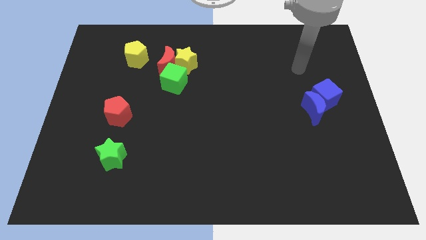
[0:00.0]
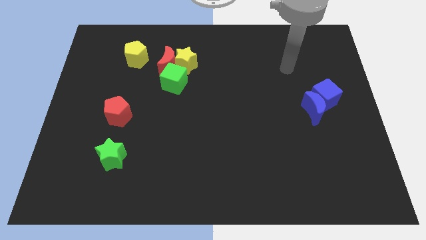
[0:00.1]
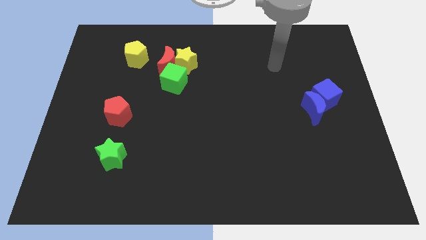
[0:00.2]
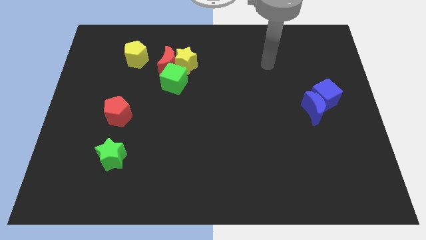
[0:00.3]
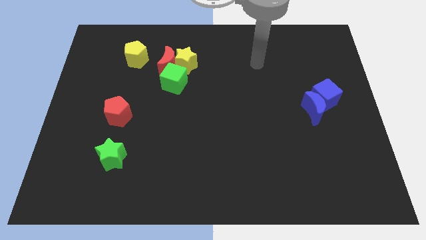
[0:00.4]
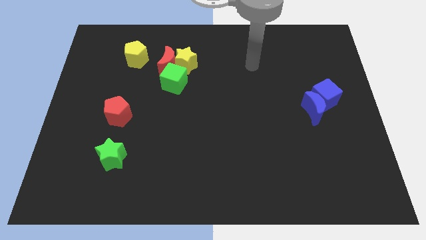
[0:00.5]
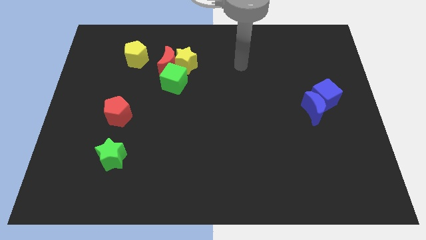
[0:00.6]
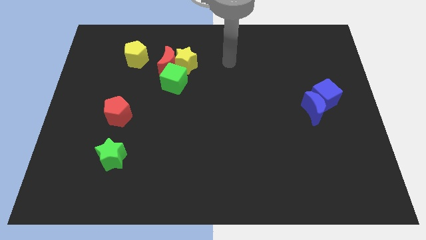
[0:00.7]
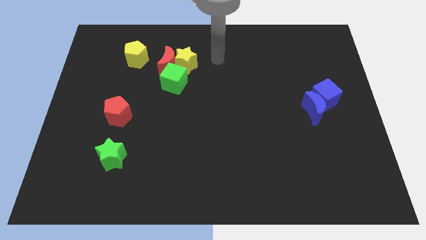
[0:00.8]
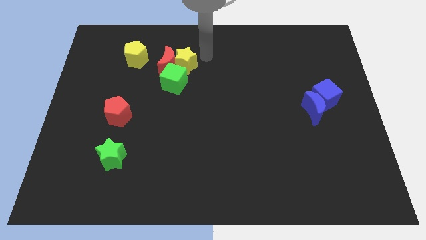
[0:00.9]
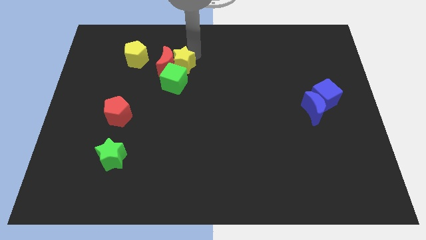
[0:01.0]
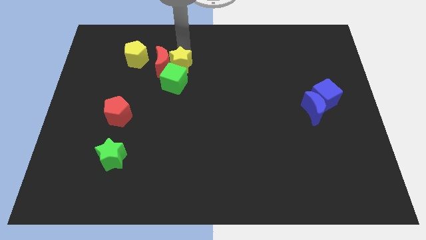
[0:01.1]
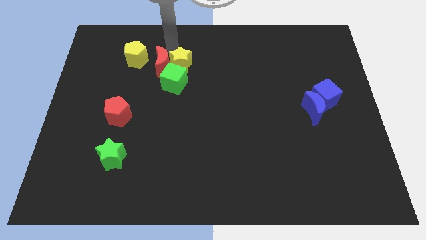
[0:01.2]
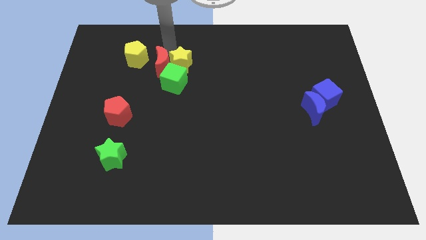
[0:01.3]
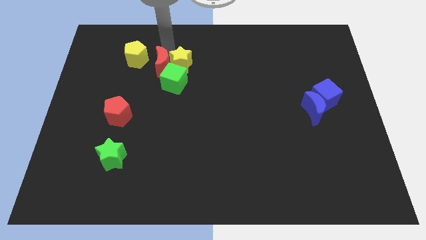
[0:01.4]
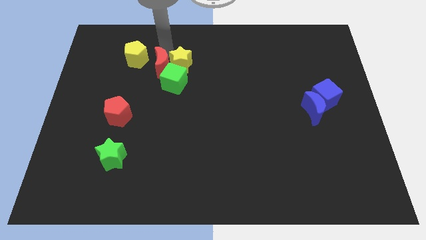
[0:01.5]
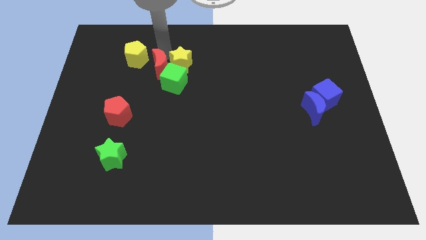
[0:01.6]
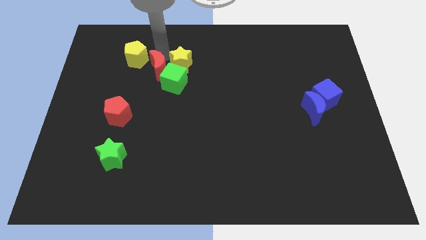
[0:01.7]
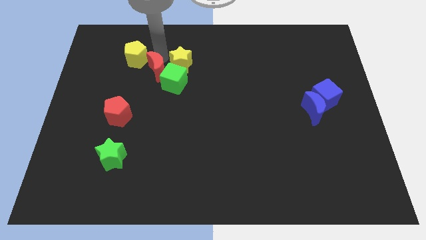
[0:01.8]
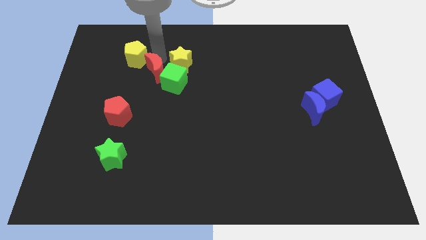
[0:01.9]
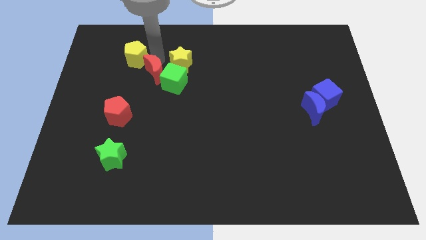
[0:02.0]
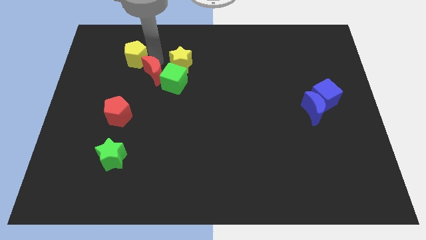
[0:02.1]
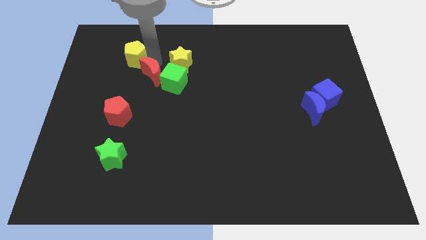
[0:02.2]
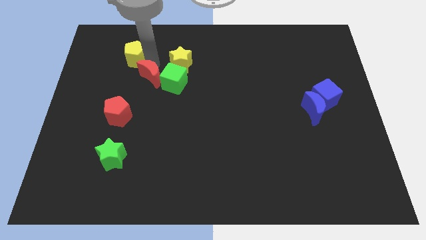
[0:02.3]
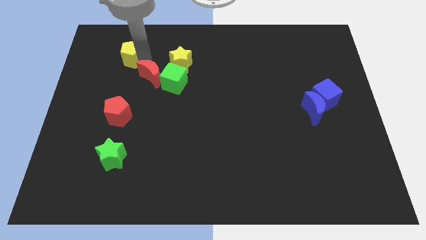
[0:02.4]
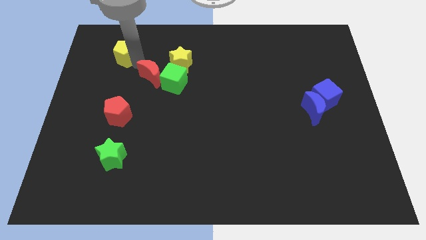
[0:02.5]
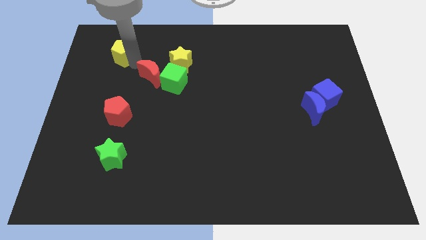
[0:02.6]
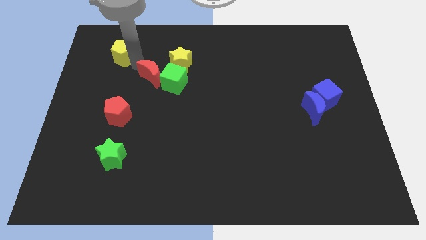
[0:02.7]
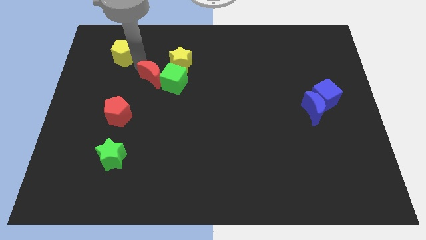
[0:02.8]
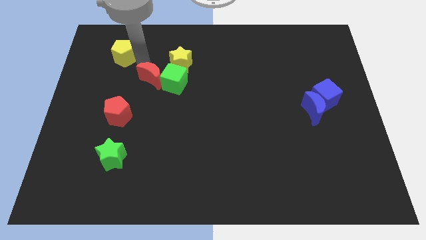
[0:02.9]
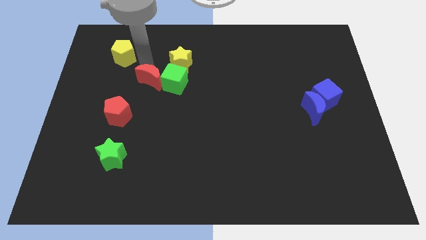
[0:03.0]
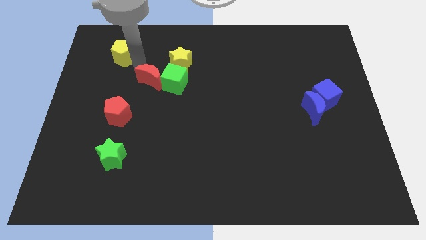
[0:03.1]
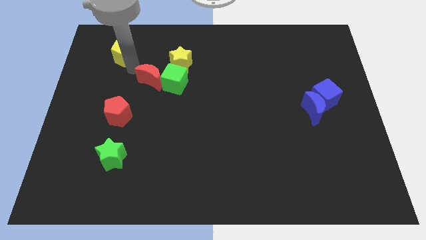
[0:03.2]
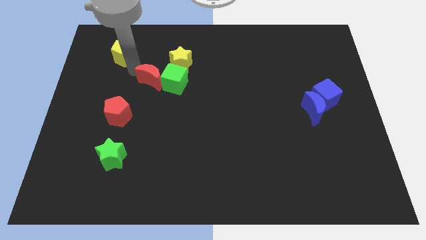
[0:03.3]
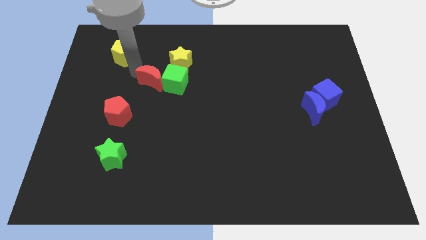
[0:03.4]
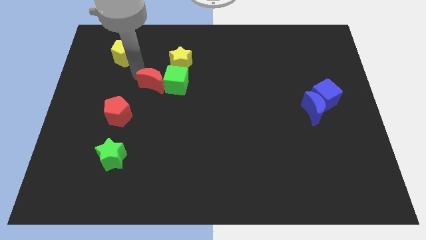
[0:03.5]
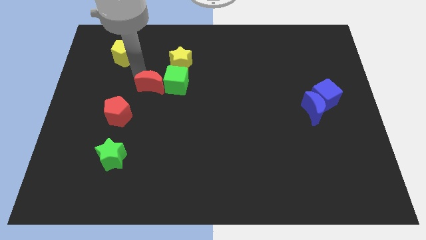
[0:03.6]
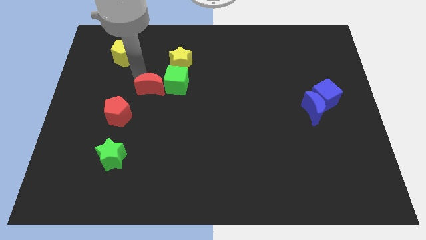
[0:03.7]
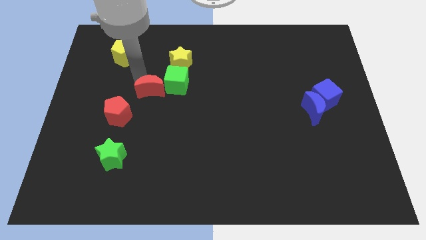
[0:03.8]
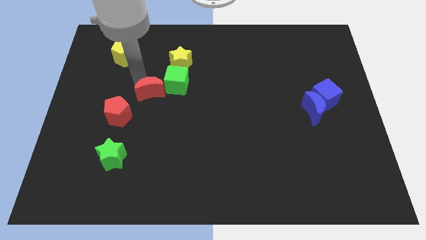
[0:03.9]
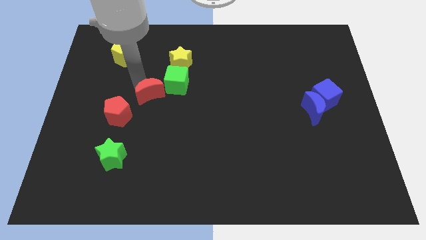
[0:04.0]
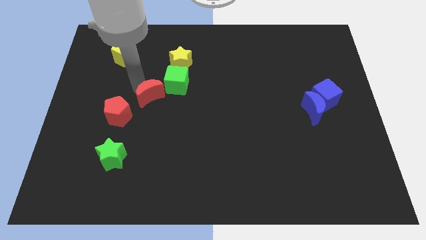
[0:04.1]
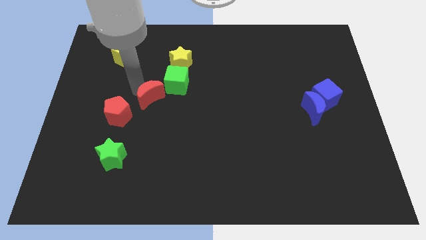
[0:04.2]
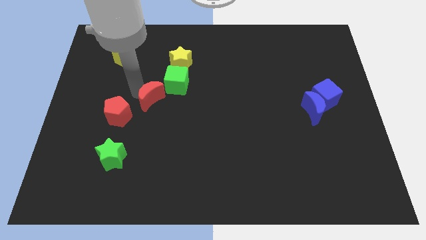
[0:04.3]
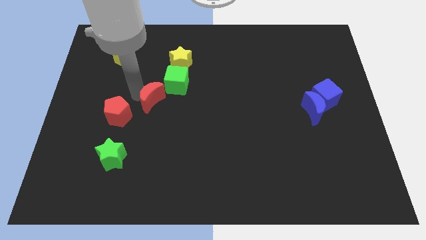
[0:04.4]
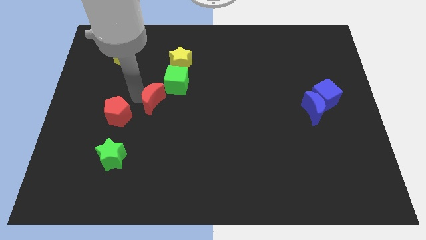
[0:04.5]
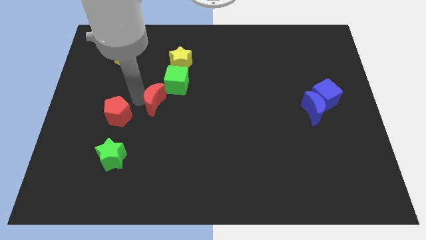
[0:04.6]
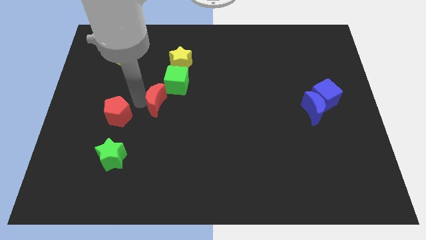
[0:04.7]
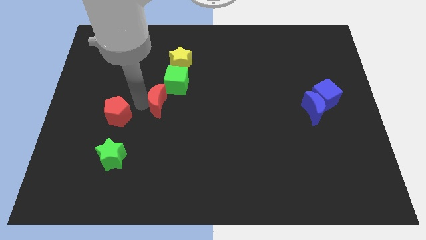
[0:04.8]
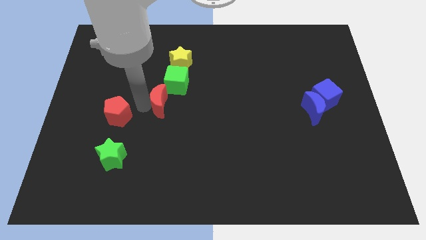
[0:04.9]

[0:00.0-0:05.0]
move the red moon to the bottom of the yellow star

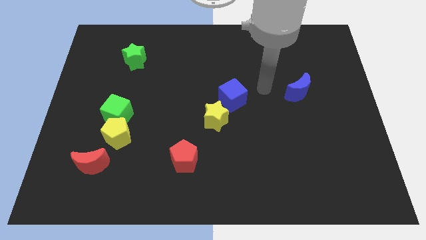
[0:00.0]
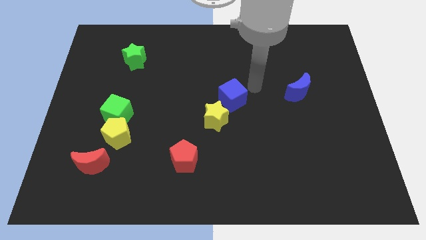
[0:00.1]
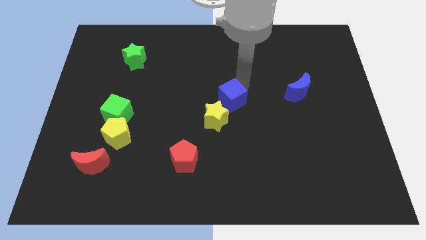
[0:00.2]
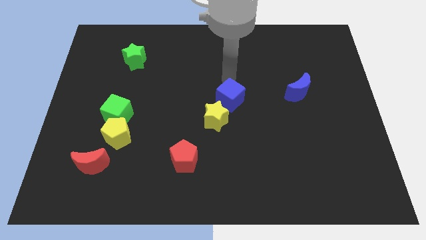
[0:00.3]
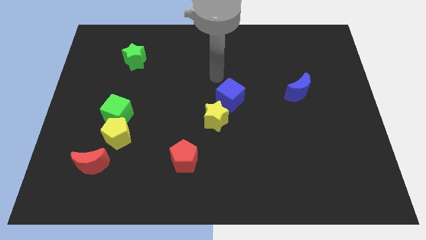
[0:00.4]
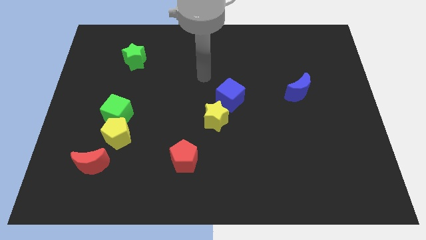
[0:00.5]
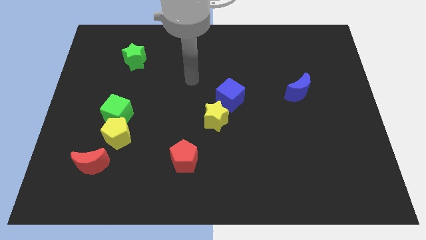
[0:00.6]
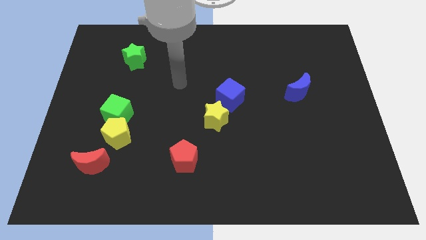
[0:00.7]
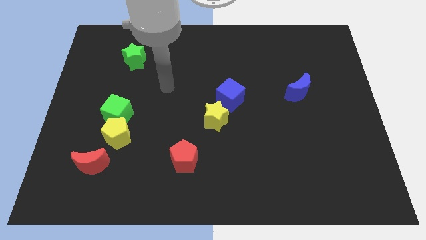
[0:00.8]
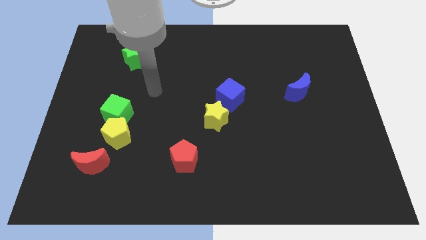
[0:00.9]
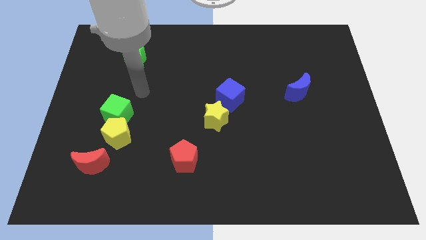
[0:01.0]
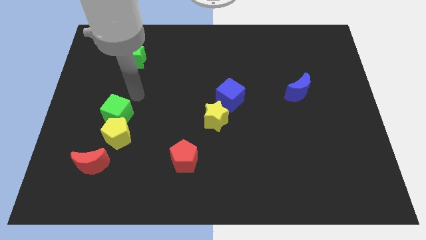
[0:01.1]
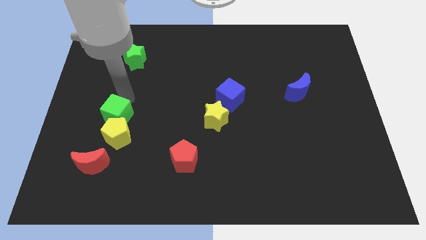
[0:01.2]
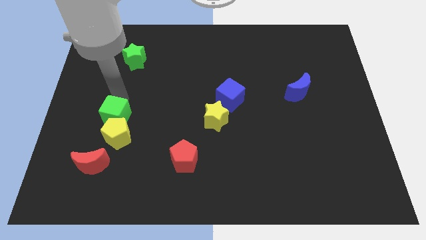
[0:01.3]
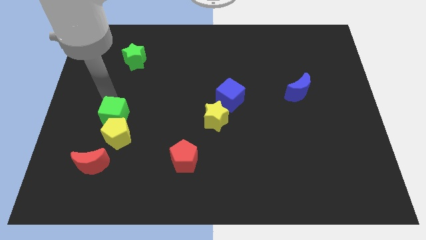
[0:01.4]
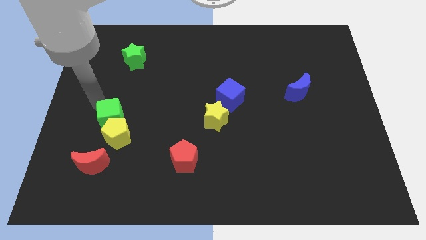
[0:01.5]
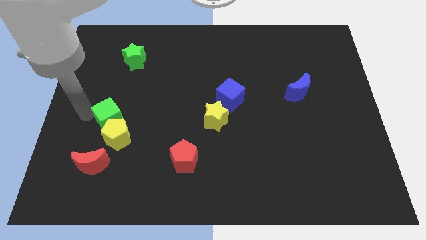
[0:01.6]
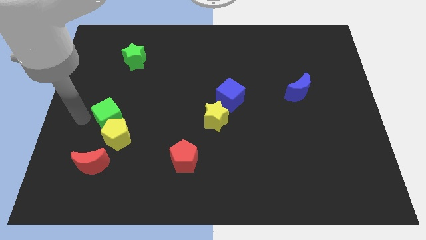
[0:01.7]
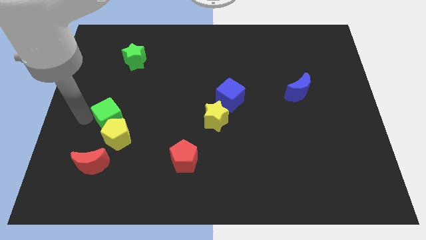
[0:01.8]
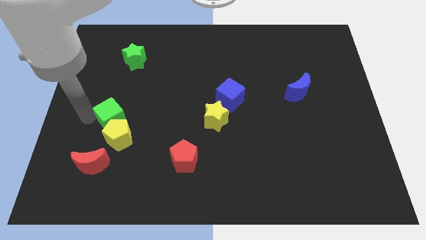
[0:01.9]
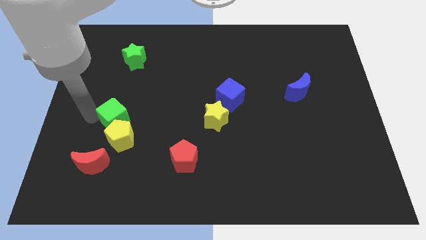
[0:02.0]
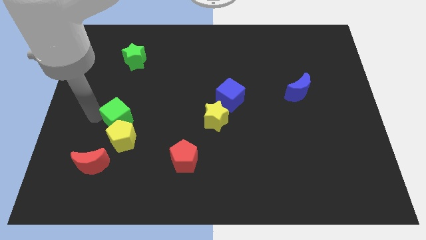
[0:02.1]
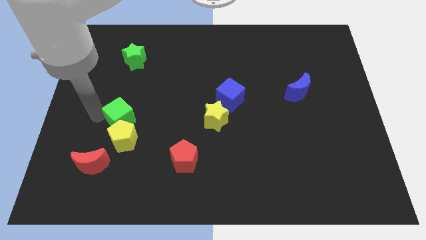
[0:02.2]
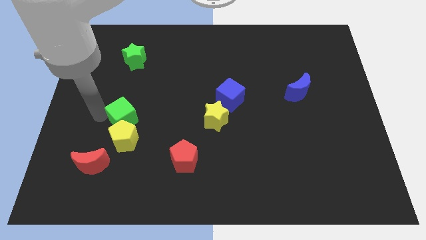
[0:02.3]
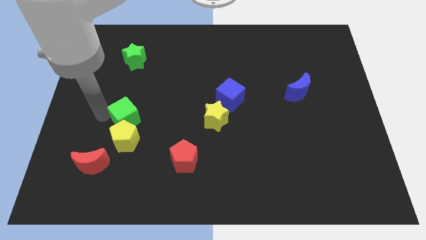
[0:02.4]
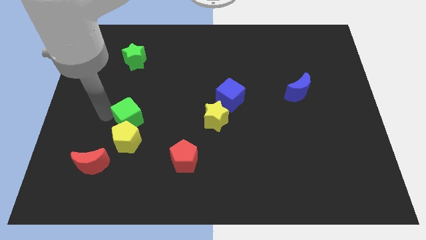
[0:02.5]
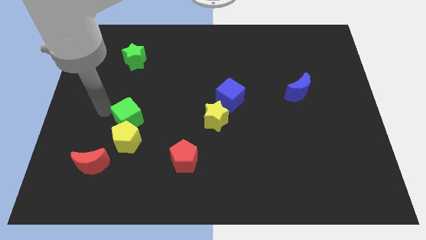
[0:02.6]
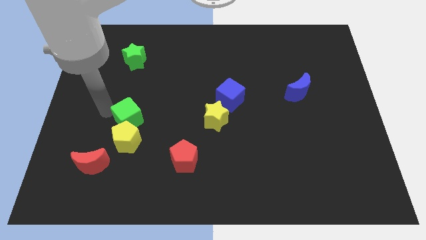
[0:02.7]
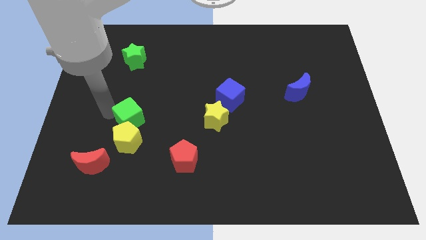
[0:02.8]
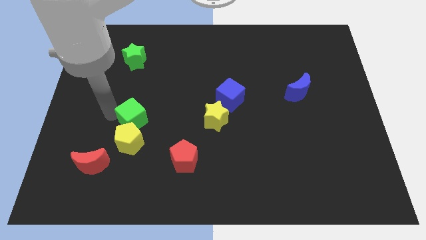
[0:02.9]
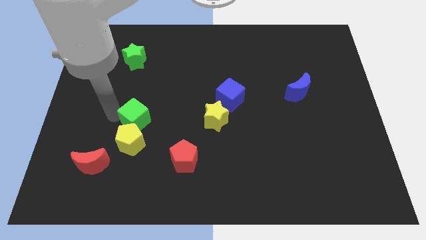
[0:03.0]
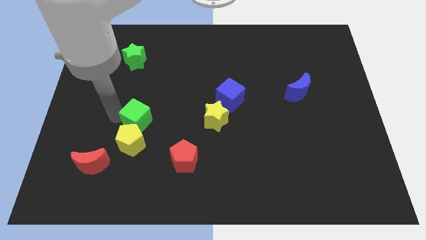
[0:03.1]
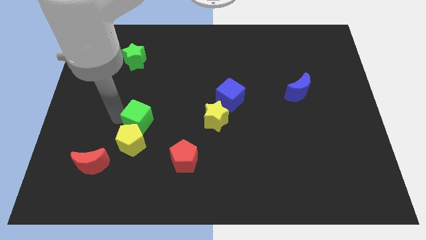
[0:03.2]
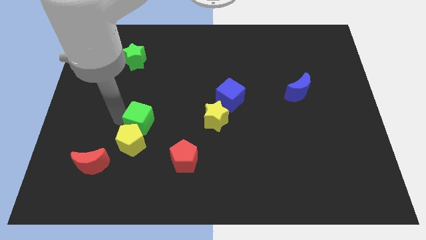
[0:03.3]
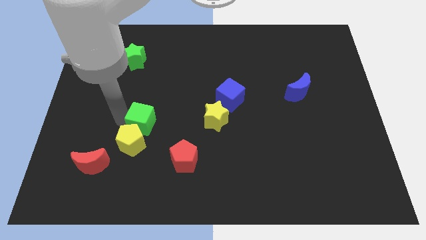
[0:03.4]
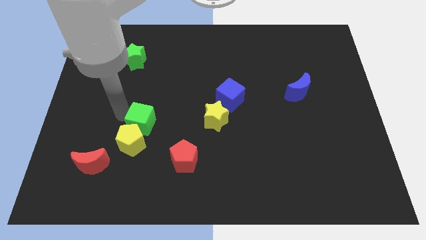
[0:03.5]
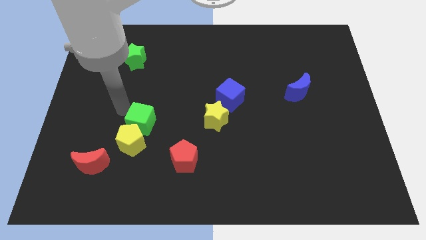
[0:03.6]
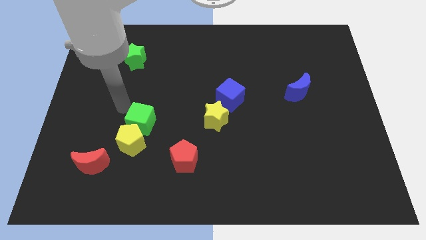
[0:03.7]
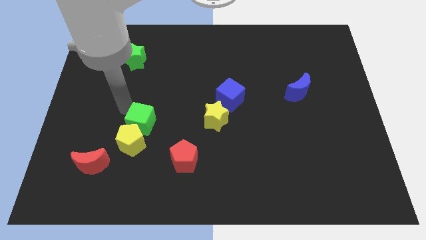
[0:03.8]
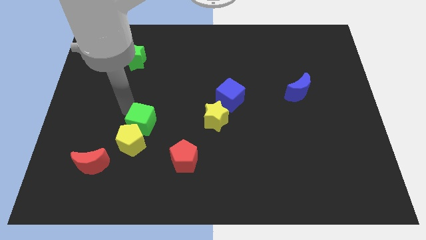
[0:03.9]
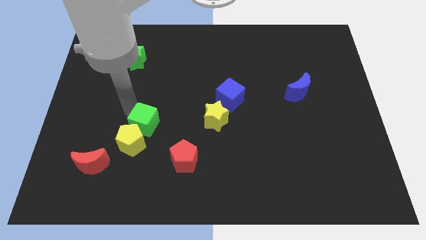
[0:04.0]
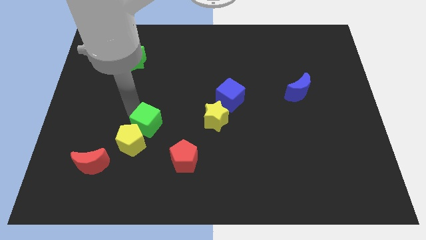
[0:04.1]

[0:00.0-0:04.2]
put the green cube to the top left side of the red pentagon
